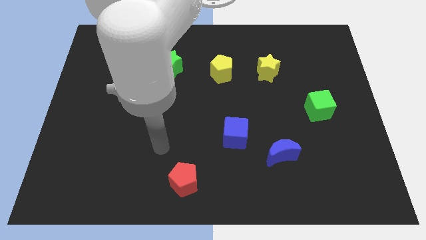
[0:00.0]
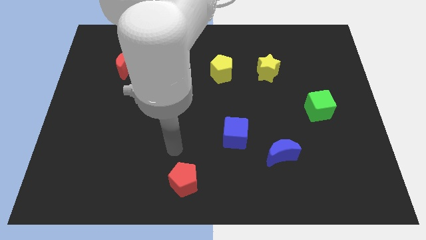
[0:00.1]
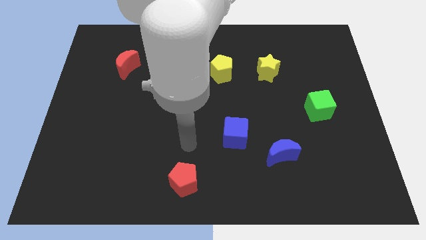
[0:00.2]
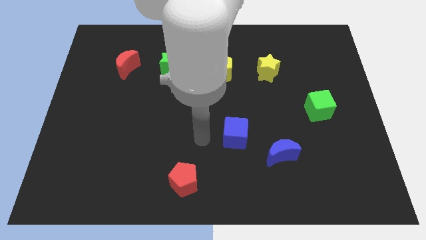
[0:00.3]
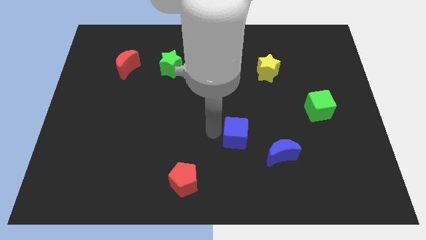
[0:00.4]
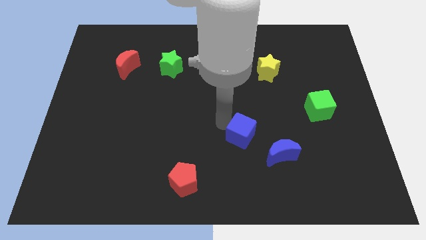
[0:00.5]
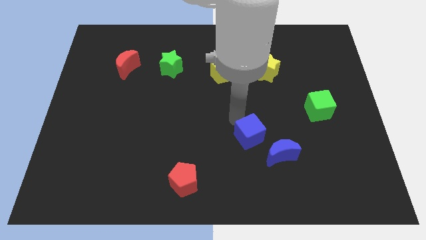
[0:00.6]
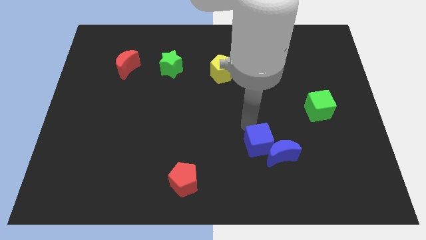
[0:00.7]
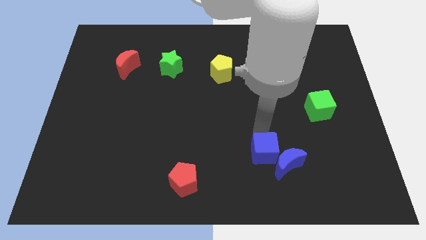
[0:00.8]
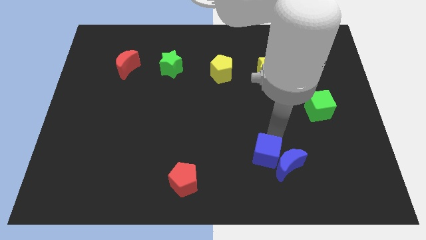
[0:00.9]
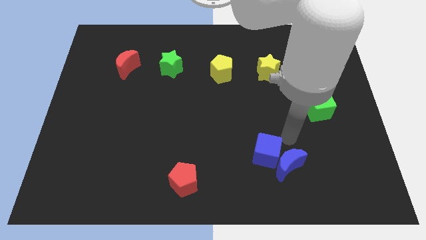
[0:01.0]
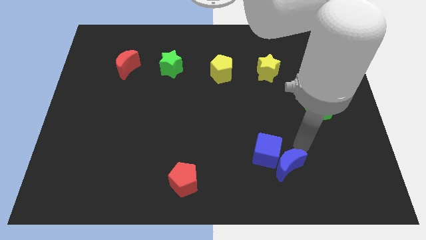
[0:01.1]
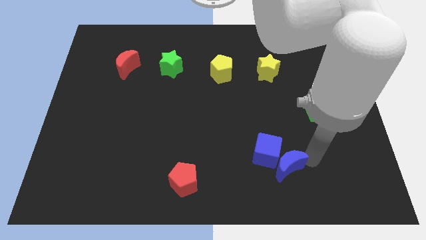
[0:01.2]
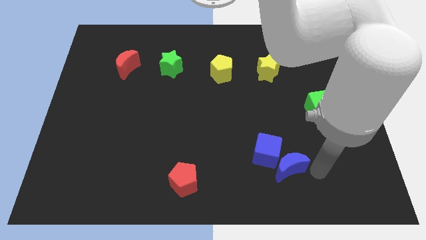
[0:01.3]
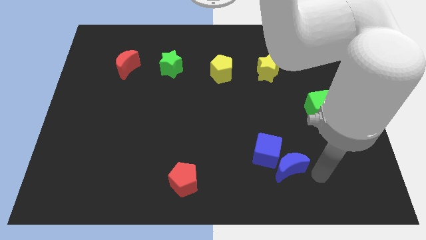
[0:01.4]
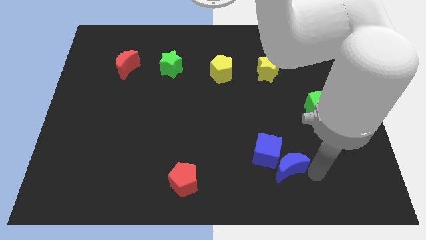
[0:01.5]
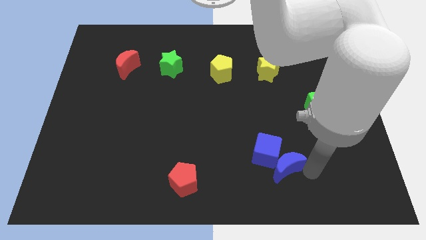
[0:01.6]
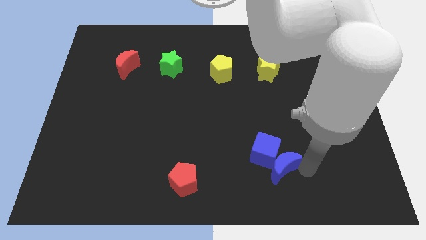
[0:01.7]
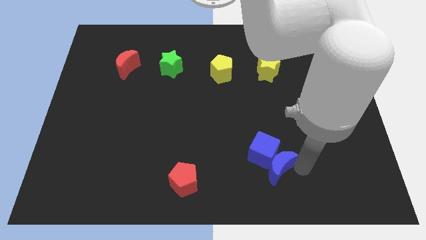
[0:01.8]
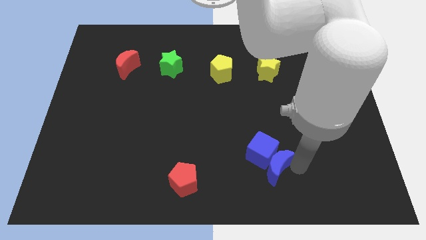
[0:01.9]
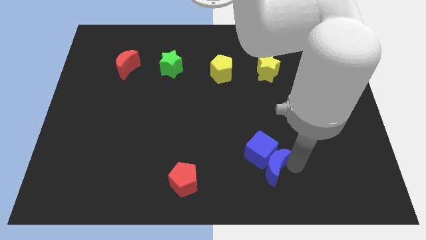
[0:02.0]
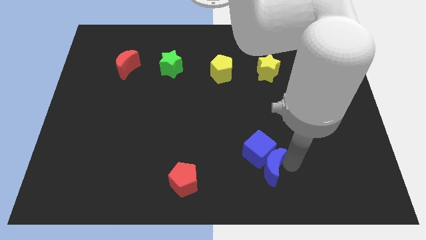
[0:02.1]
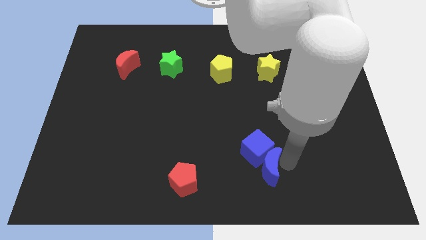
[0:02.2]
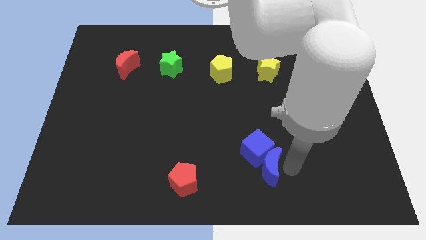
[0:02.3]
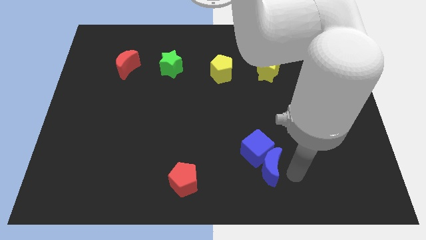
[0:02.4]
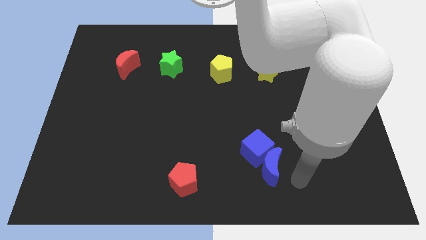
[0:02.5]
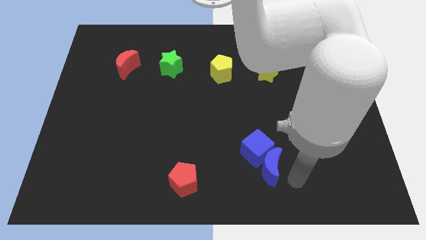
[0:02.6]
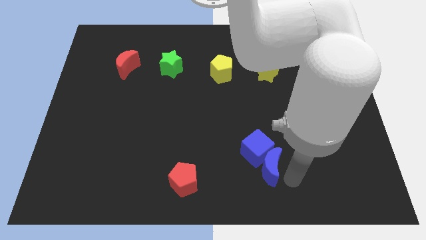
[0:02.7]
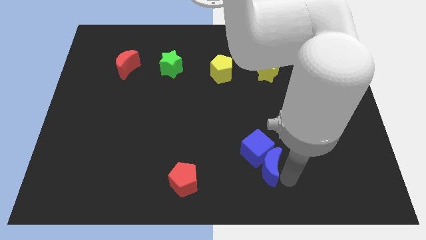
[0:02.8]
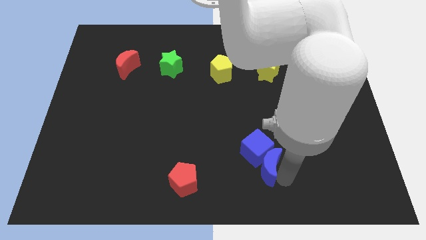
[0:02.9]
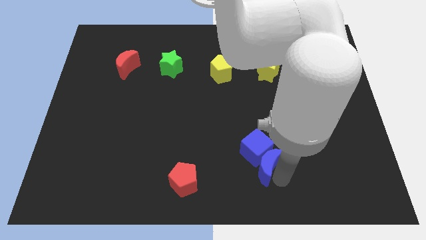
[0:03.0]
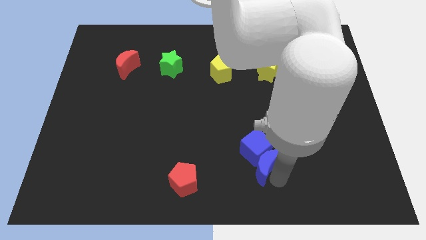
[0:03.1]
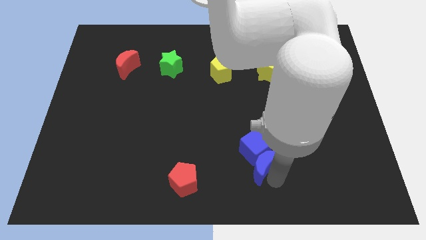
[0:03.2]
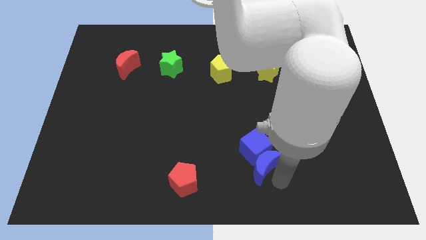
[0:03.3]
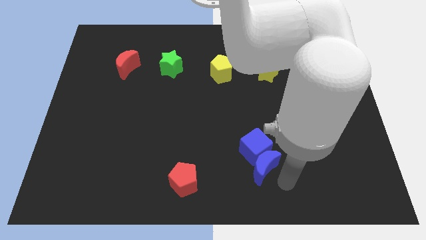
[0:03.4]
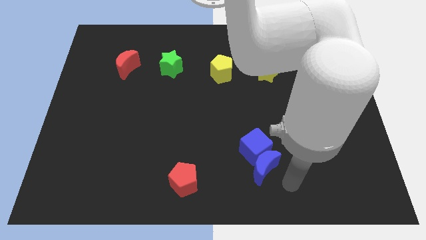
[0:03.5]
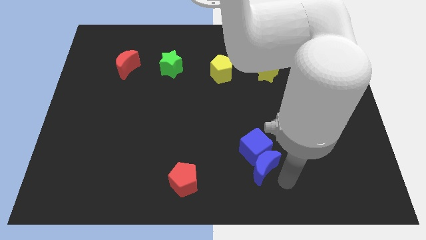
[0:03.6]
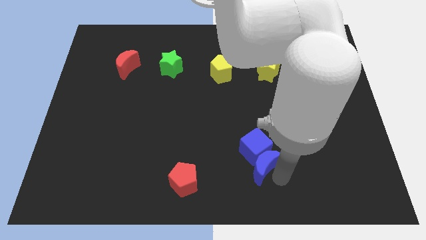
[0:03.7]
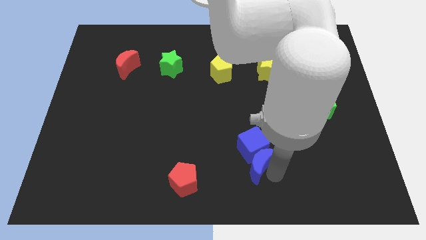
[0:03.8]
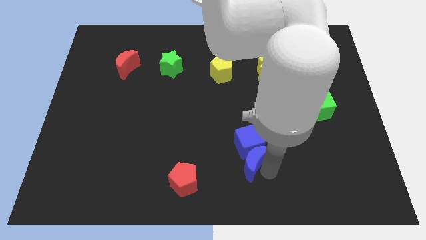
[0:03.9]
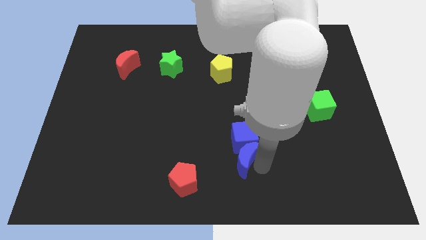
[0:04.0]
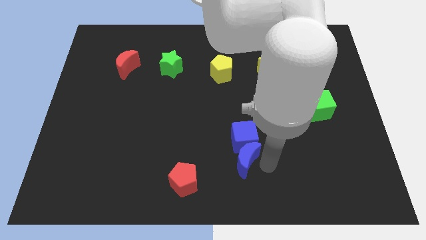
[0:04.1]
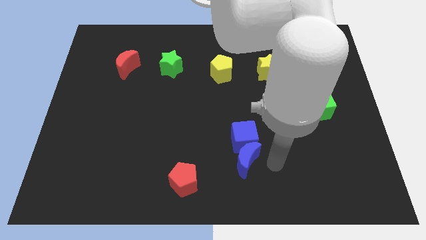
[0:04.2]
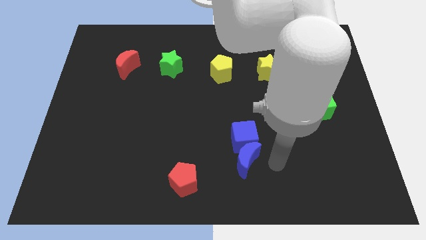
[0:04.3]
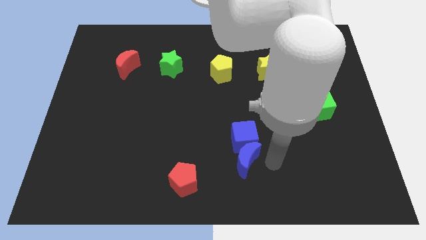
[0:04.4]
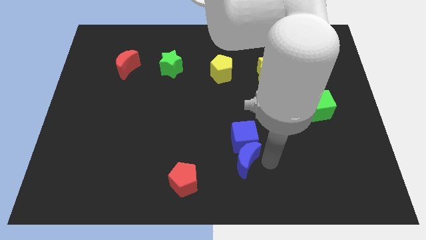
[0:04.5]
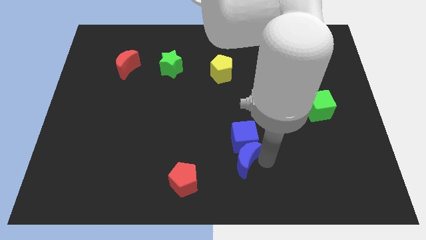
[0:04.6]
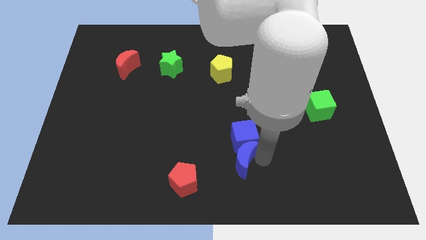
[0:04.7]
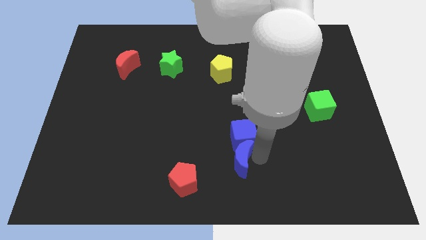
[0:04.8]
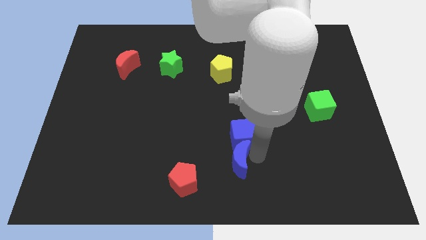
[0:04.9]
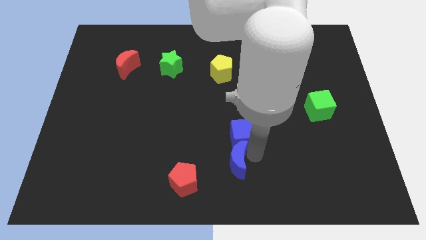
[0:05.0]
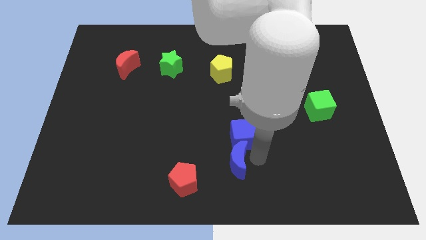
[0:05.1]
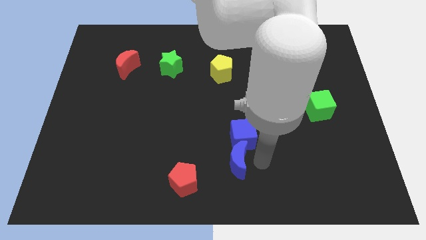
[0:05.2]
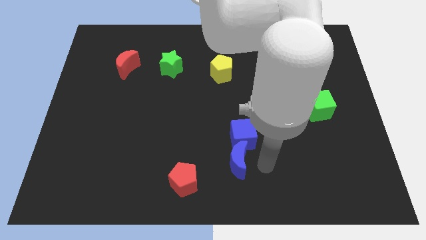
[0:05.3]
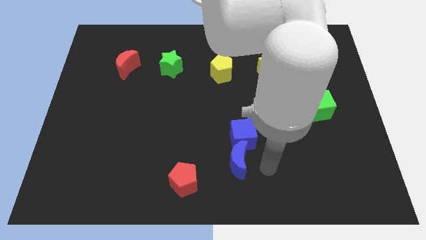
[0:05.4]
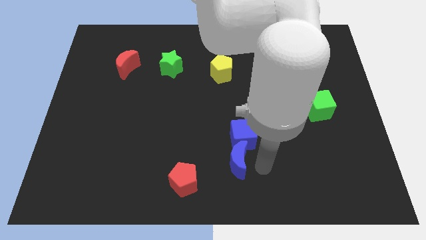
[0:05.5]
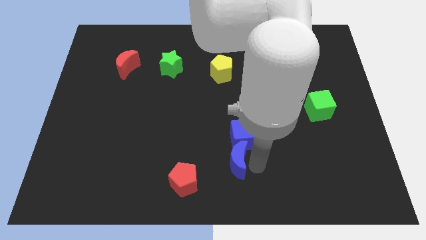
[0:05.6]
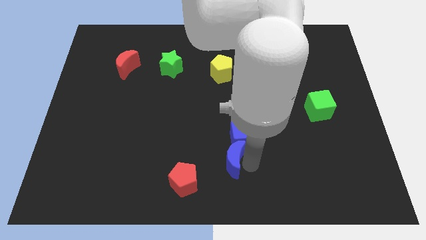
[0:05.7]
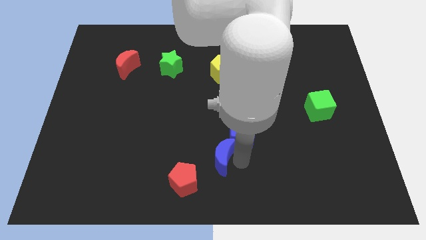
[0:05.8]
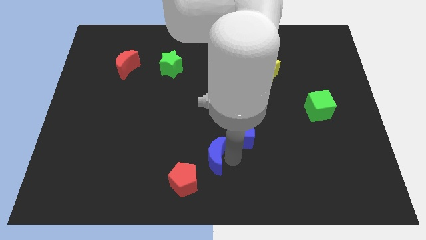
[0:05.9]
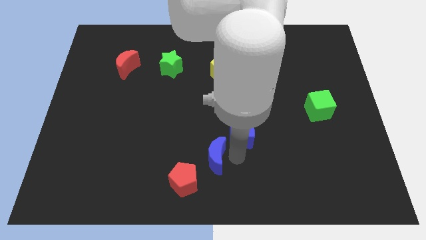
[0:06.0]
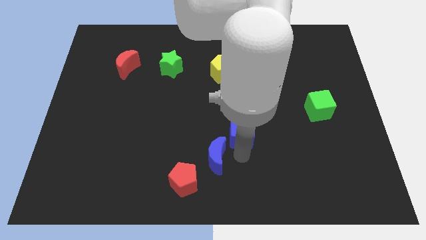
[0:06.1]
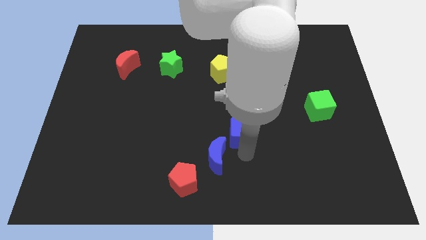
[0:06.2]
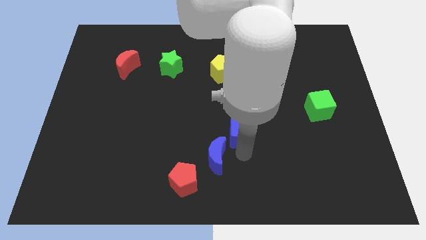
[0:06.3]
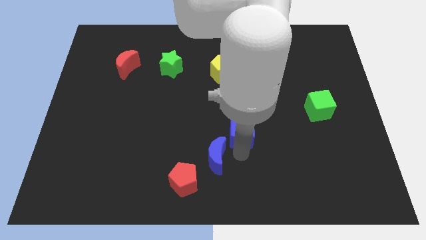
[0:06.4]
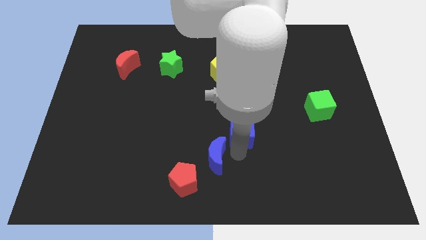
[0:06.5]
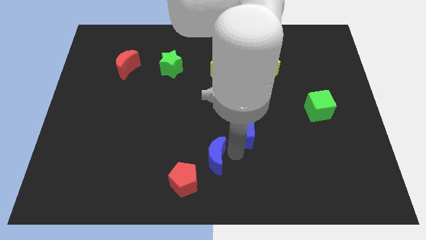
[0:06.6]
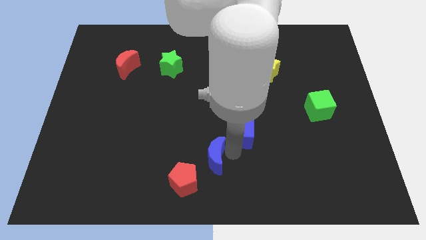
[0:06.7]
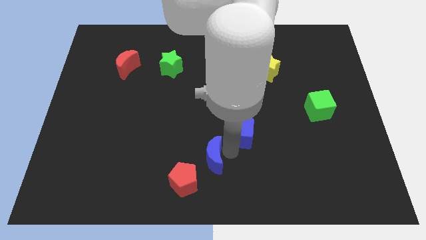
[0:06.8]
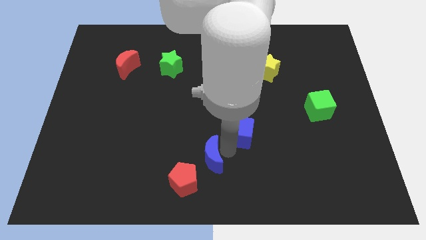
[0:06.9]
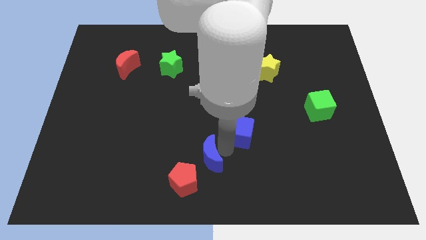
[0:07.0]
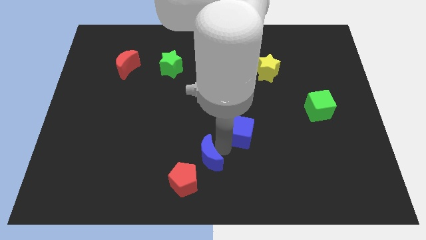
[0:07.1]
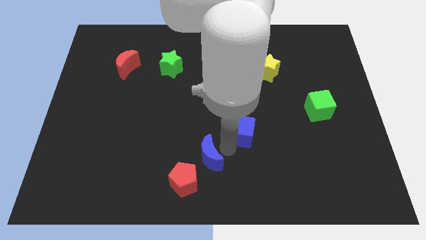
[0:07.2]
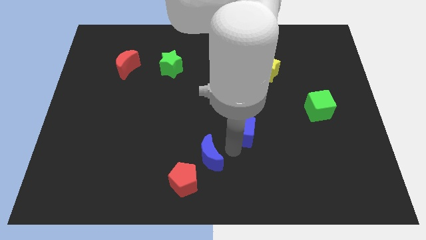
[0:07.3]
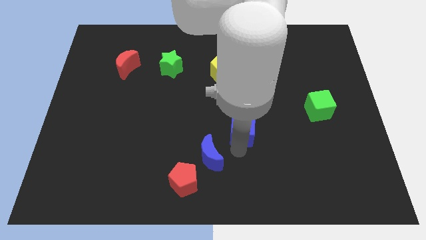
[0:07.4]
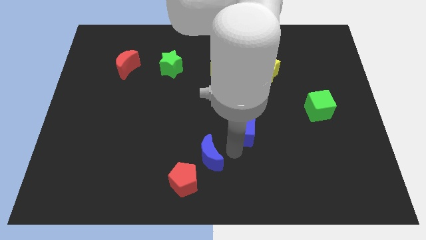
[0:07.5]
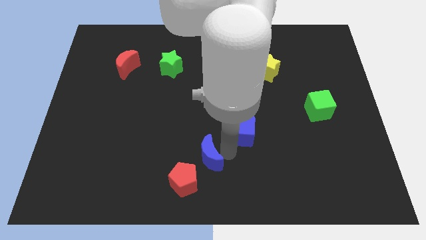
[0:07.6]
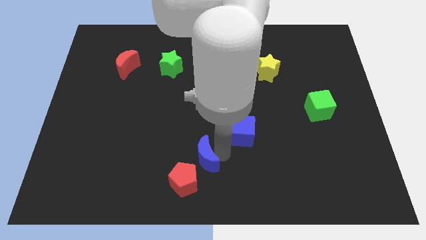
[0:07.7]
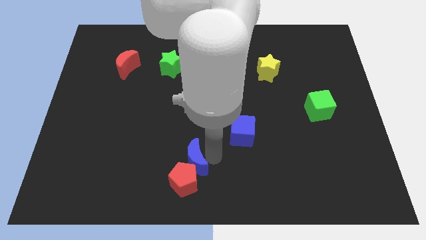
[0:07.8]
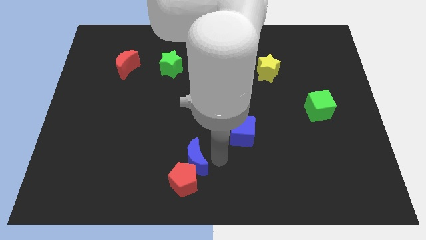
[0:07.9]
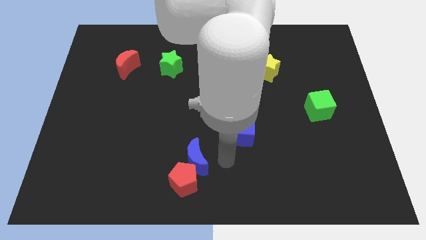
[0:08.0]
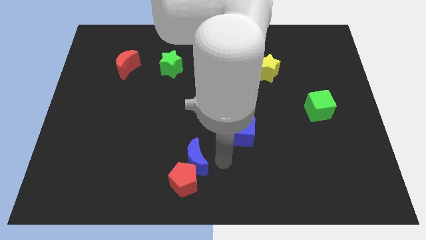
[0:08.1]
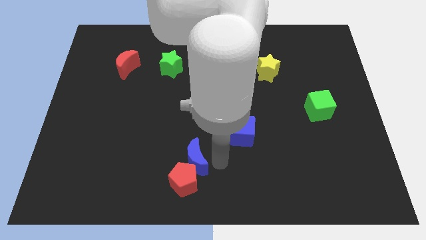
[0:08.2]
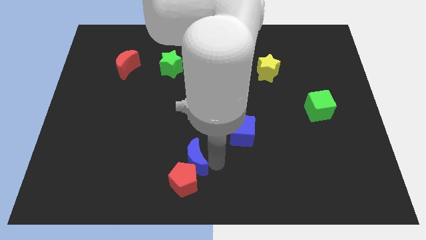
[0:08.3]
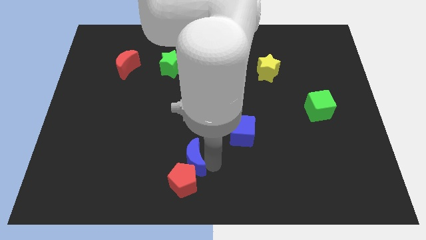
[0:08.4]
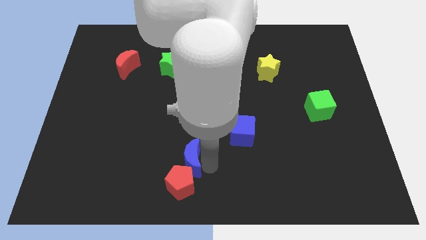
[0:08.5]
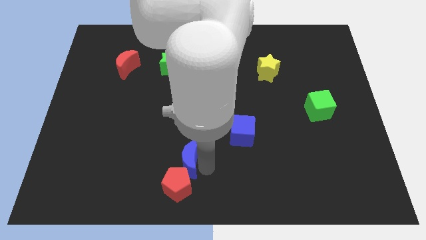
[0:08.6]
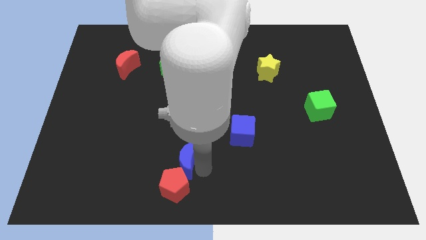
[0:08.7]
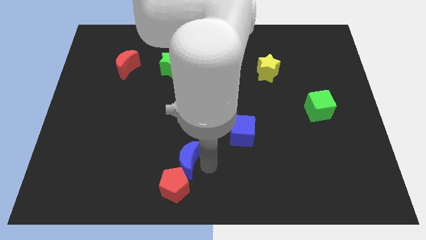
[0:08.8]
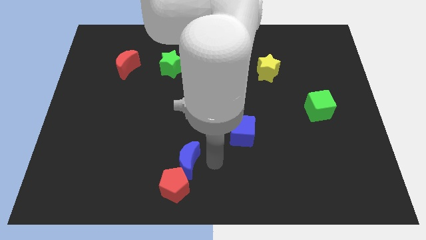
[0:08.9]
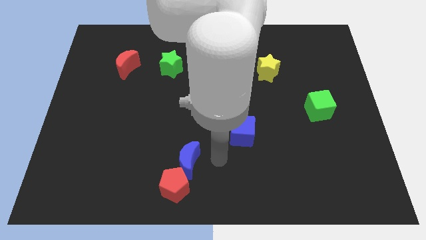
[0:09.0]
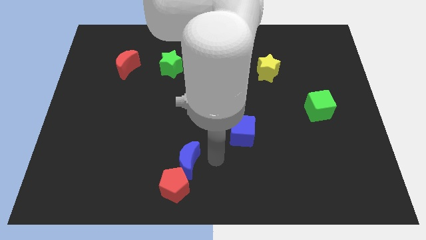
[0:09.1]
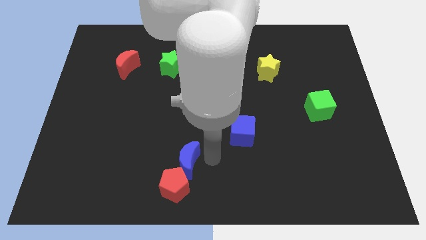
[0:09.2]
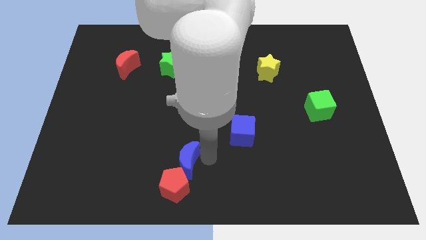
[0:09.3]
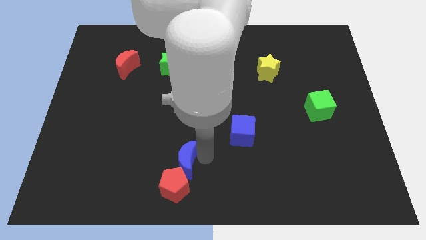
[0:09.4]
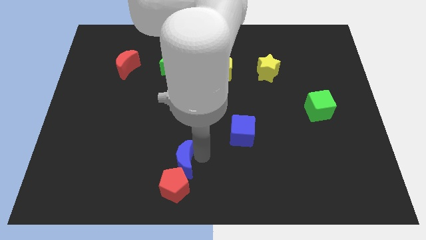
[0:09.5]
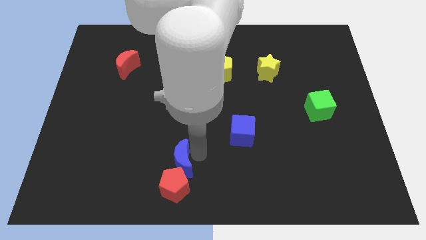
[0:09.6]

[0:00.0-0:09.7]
push the blue moon diagonally up and to the left of the red pentagon
